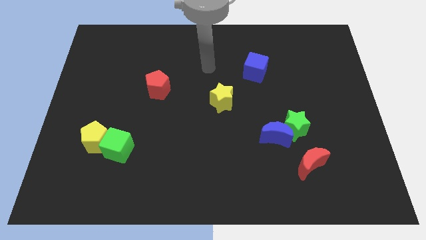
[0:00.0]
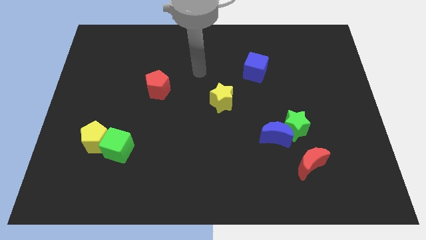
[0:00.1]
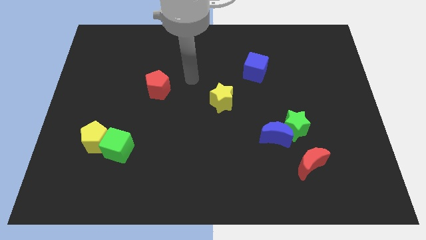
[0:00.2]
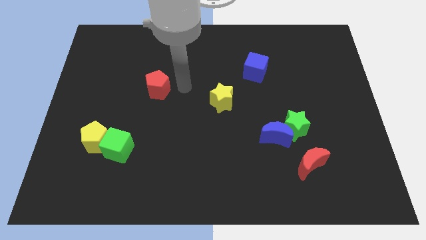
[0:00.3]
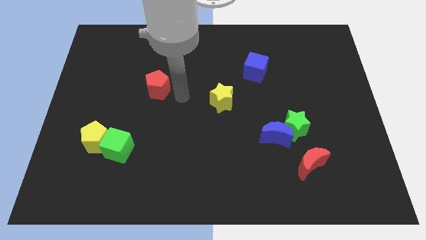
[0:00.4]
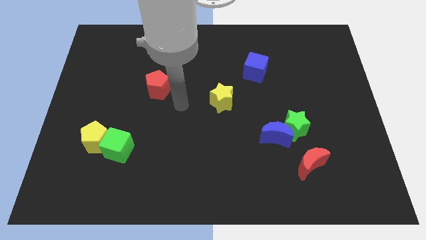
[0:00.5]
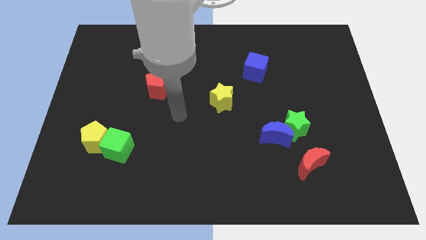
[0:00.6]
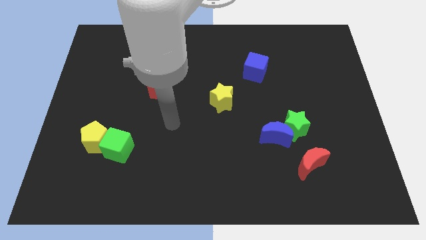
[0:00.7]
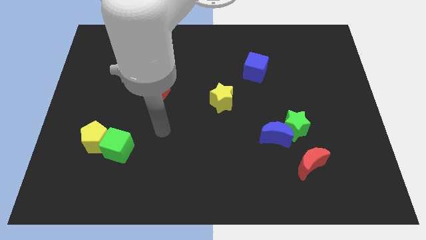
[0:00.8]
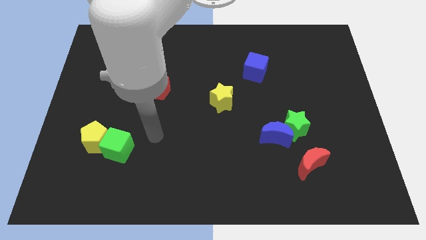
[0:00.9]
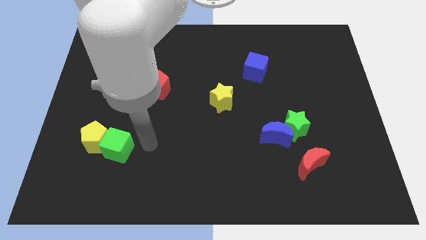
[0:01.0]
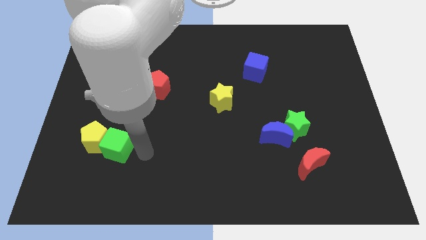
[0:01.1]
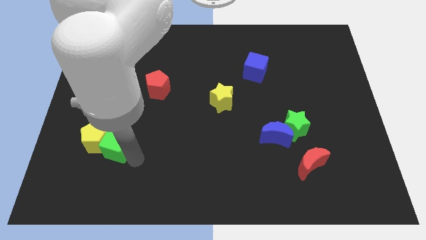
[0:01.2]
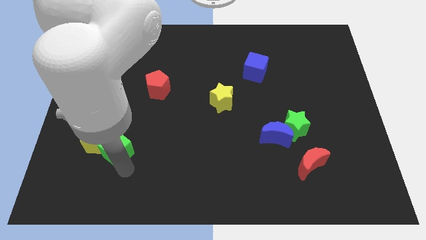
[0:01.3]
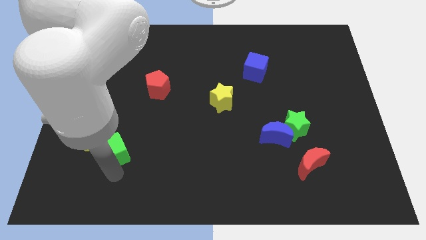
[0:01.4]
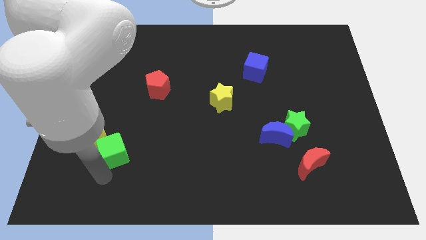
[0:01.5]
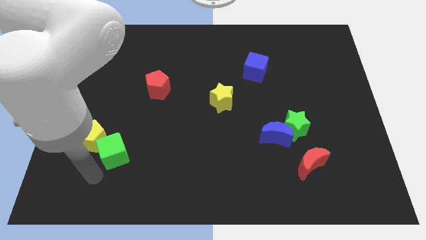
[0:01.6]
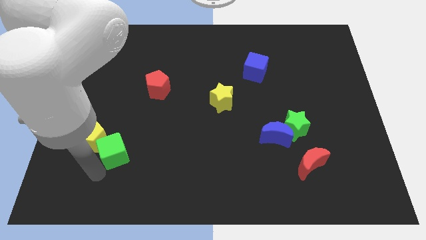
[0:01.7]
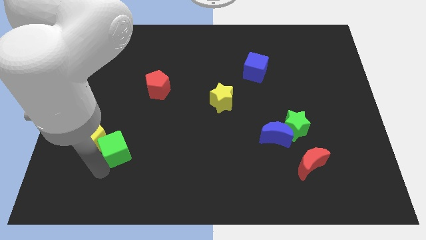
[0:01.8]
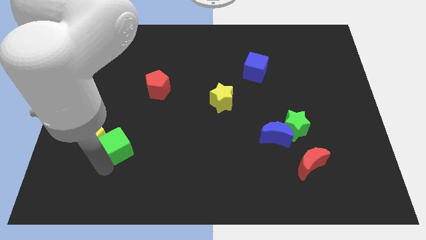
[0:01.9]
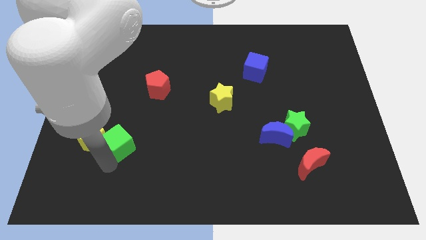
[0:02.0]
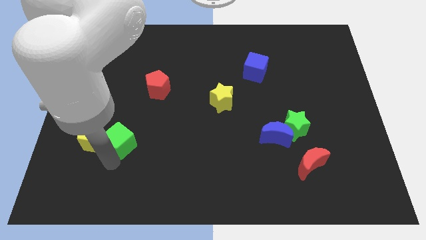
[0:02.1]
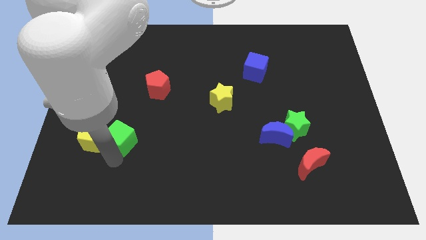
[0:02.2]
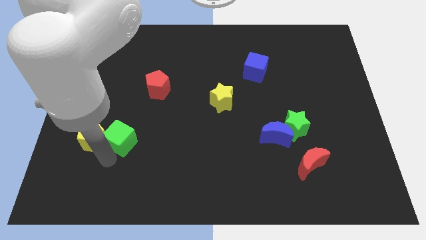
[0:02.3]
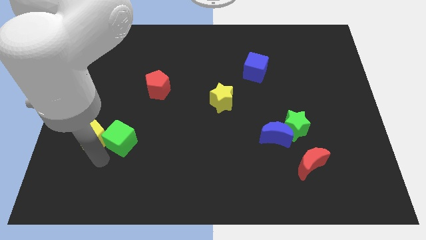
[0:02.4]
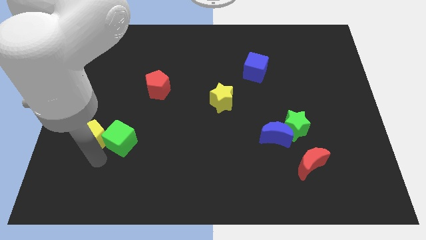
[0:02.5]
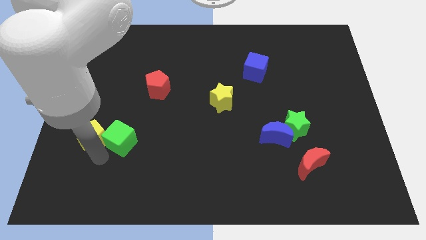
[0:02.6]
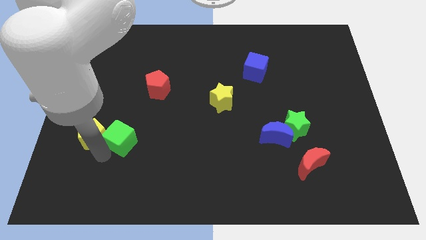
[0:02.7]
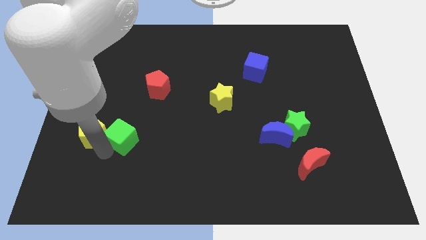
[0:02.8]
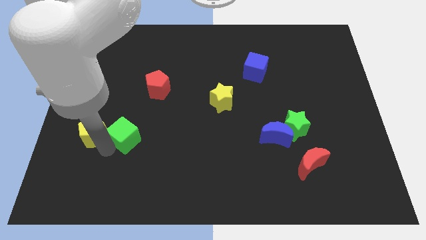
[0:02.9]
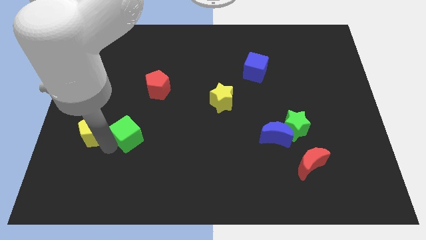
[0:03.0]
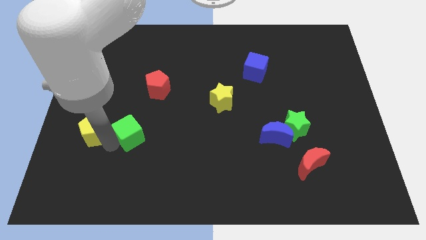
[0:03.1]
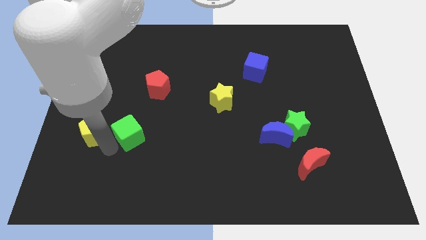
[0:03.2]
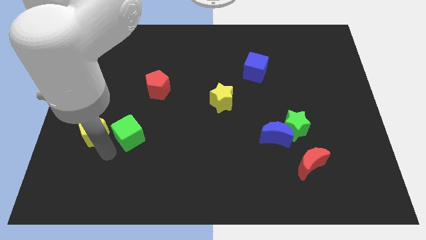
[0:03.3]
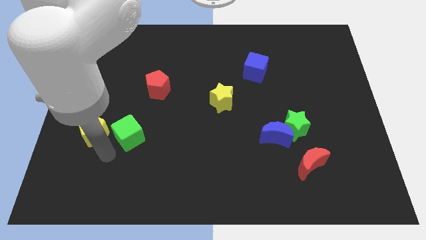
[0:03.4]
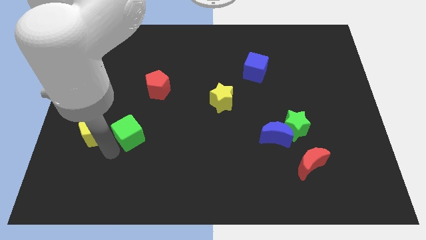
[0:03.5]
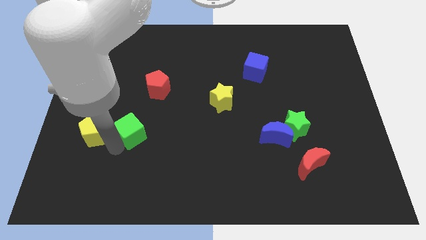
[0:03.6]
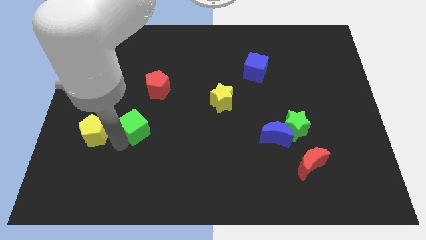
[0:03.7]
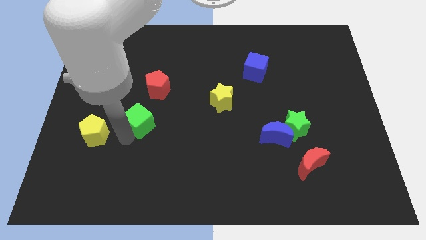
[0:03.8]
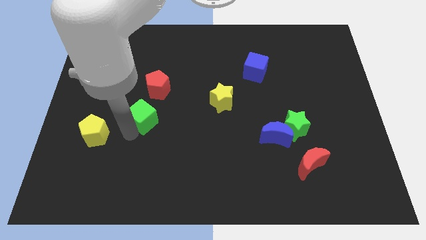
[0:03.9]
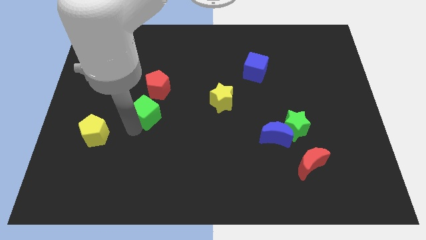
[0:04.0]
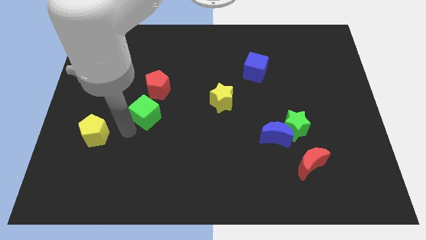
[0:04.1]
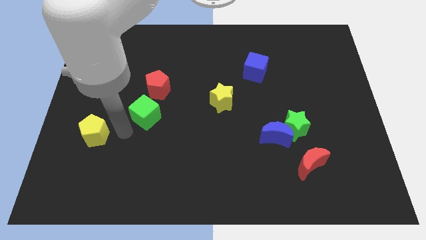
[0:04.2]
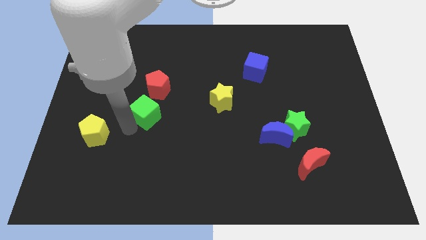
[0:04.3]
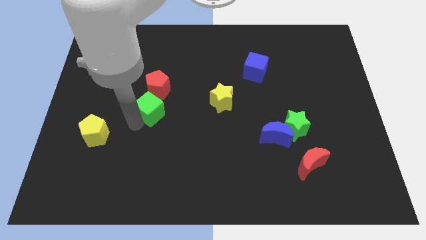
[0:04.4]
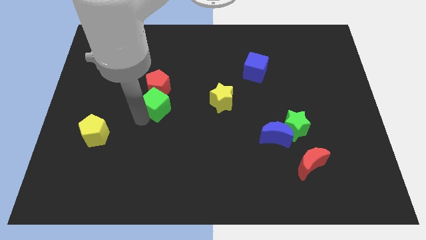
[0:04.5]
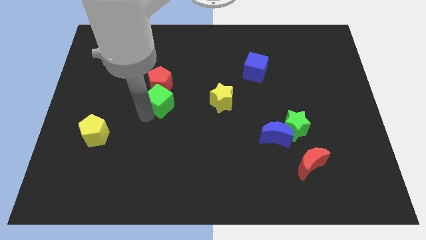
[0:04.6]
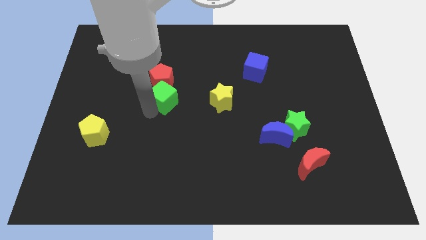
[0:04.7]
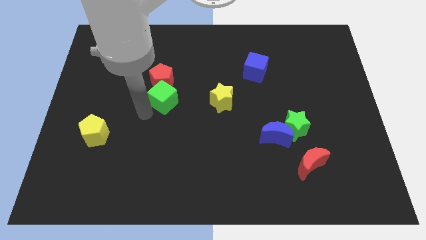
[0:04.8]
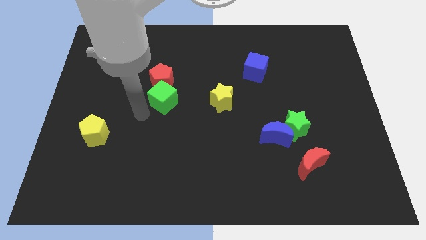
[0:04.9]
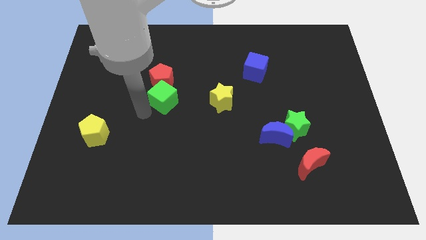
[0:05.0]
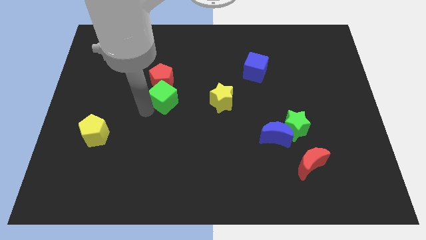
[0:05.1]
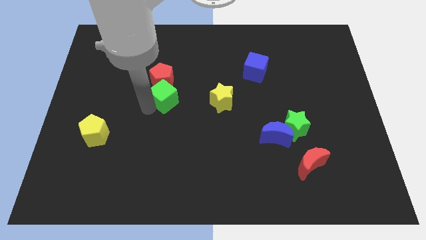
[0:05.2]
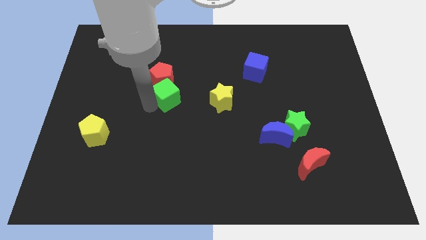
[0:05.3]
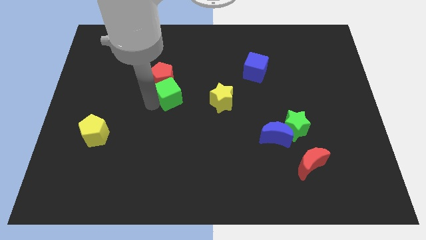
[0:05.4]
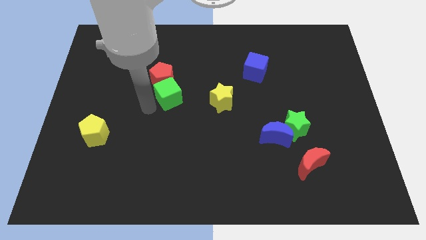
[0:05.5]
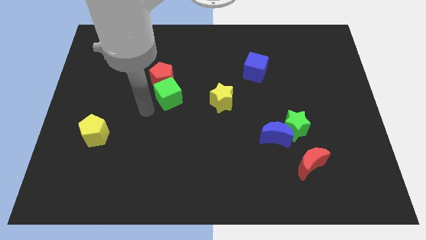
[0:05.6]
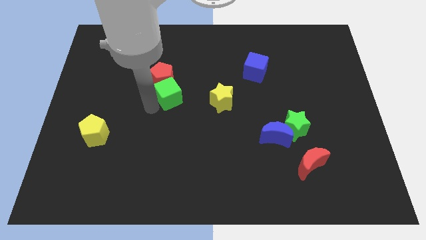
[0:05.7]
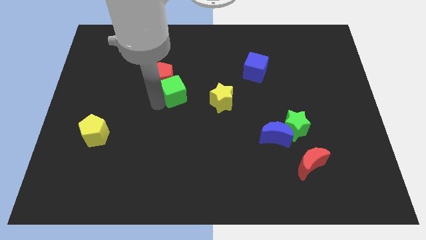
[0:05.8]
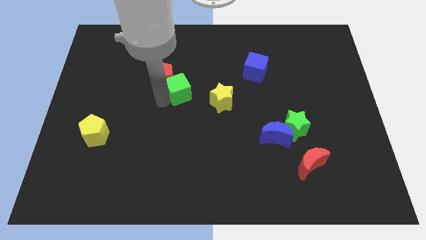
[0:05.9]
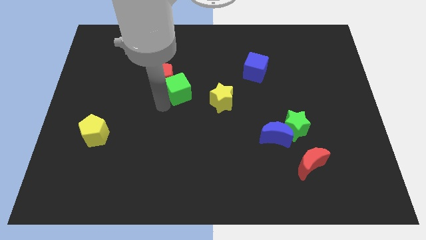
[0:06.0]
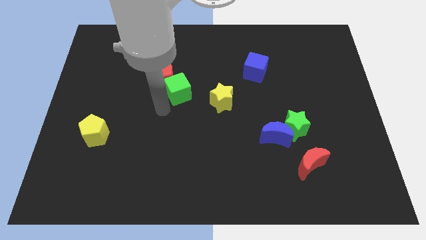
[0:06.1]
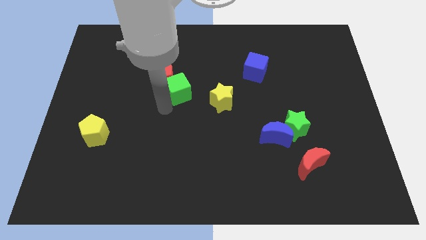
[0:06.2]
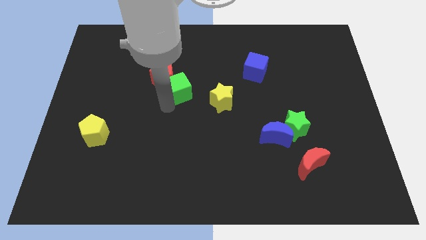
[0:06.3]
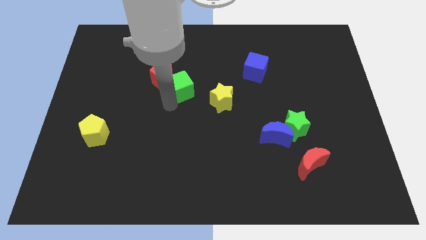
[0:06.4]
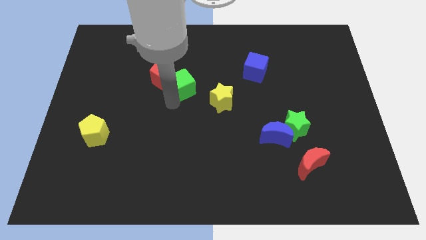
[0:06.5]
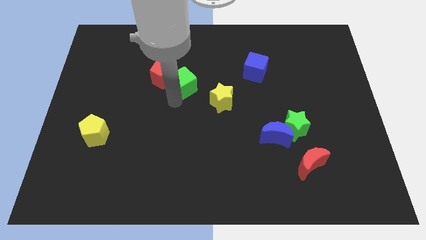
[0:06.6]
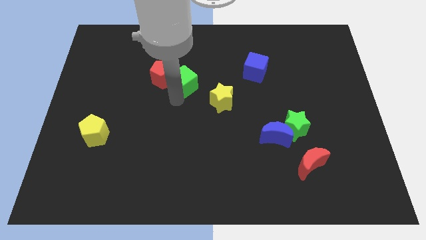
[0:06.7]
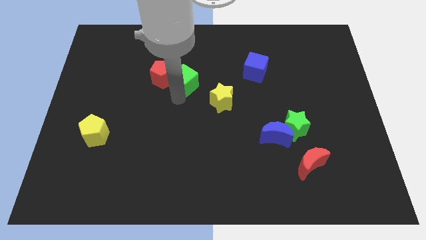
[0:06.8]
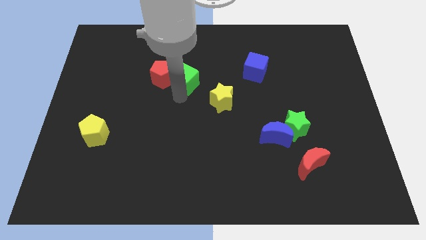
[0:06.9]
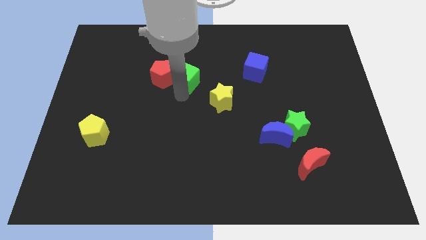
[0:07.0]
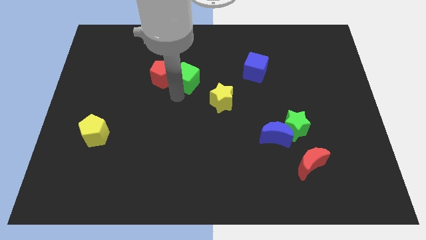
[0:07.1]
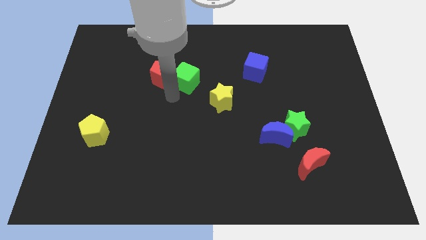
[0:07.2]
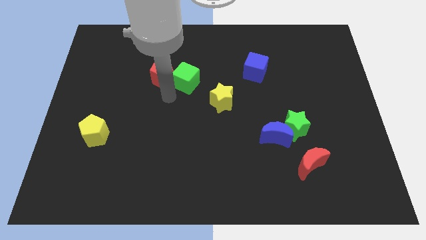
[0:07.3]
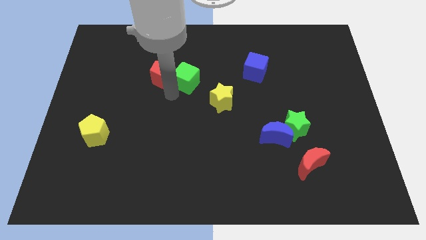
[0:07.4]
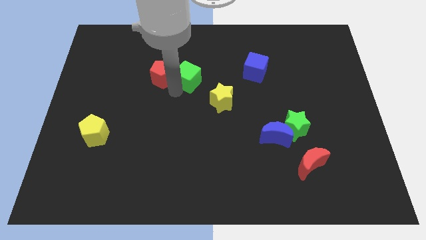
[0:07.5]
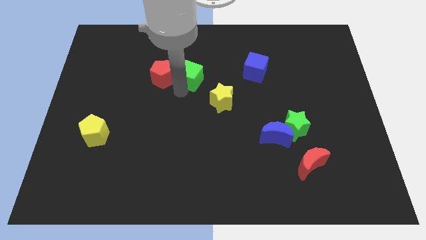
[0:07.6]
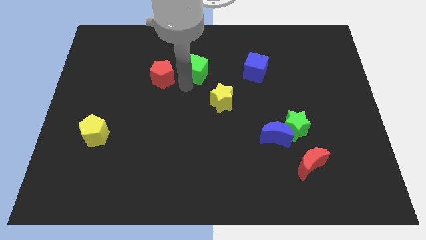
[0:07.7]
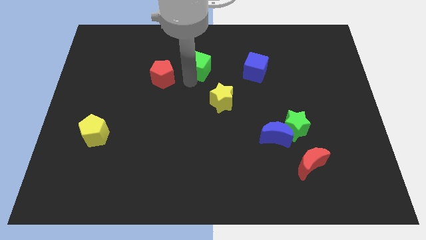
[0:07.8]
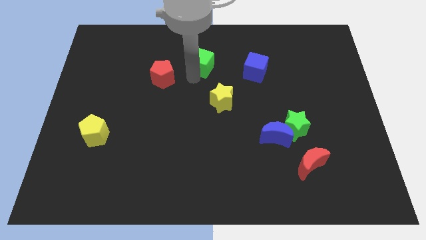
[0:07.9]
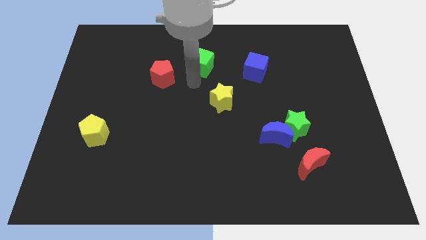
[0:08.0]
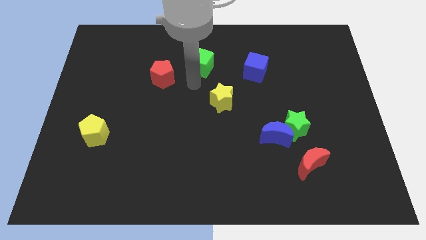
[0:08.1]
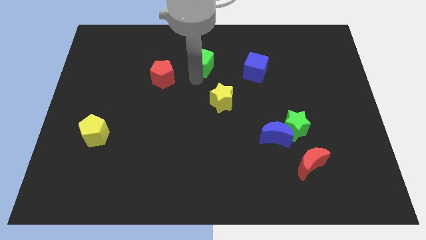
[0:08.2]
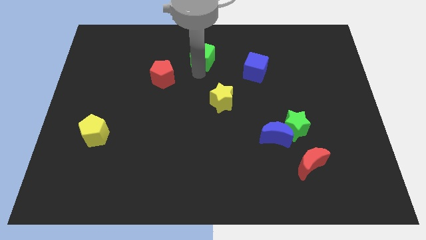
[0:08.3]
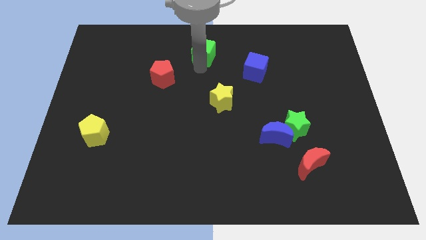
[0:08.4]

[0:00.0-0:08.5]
move the green cube to the top
